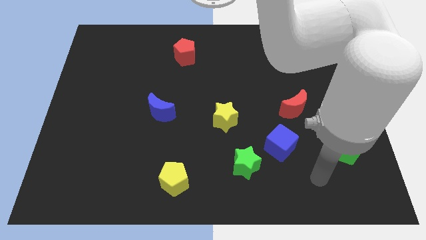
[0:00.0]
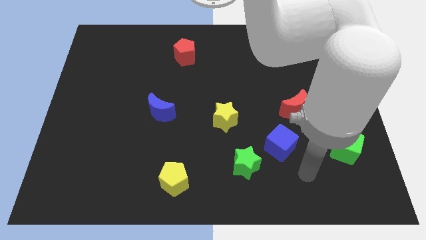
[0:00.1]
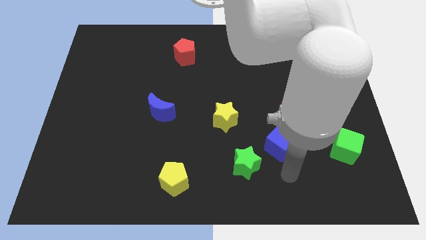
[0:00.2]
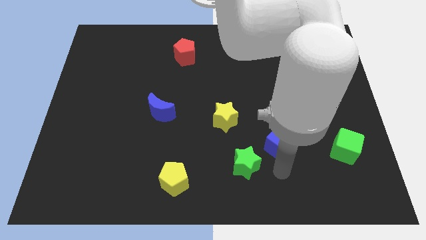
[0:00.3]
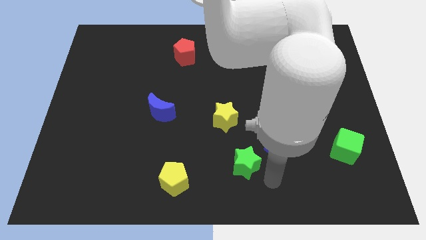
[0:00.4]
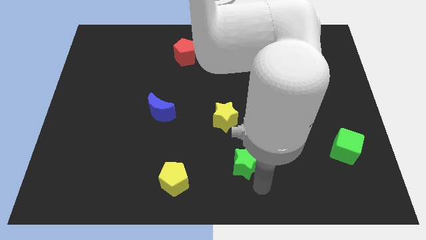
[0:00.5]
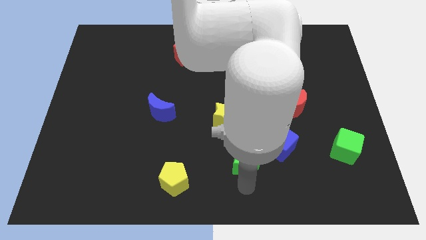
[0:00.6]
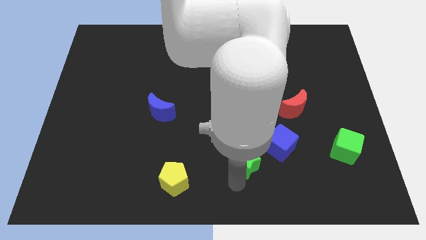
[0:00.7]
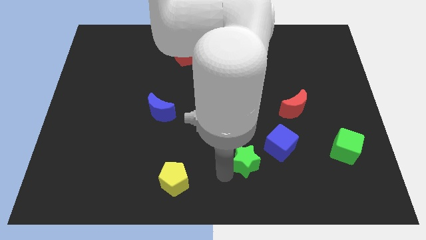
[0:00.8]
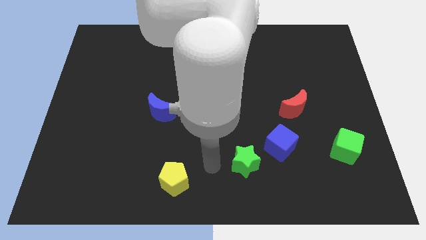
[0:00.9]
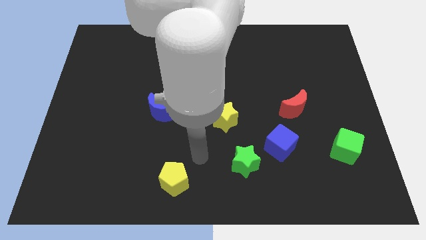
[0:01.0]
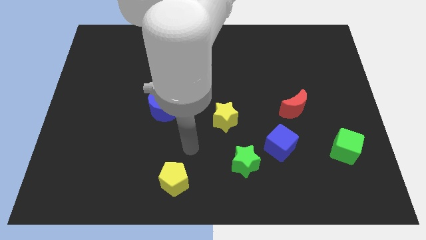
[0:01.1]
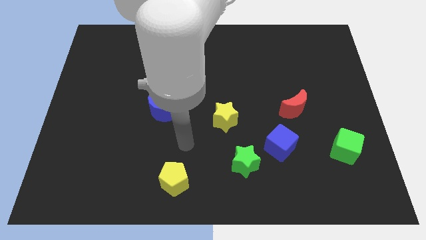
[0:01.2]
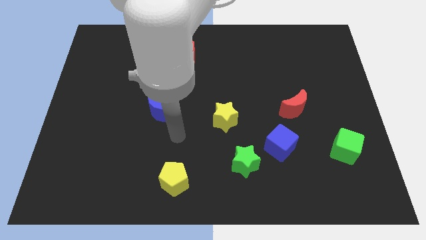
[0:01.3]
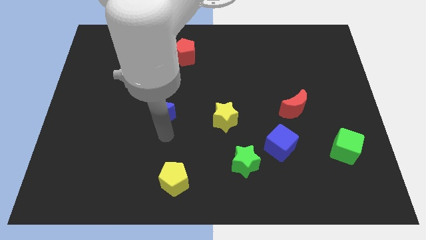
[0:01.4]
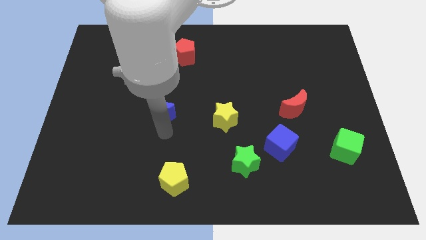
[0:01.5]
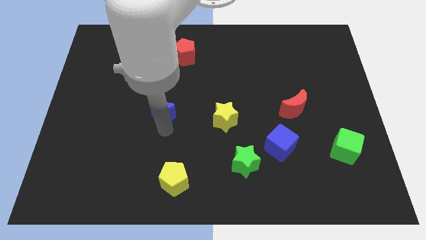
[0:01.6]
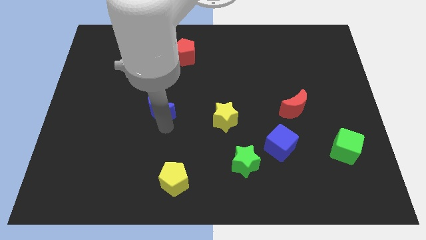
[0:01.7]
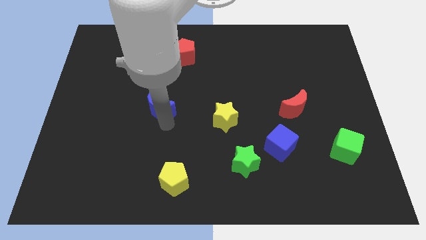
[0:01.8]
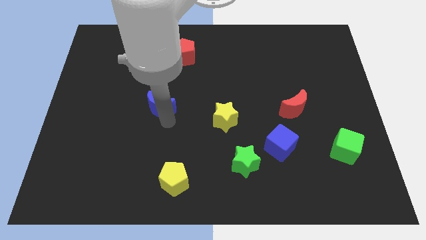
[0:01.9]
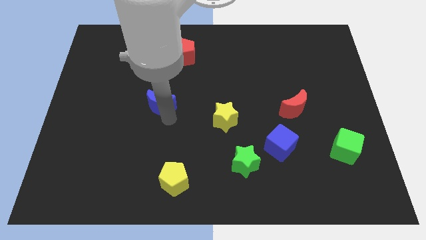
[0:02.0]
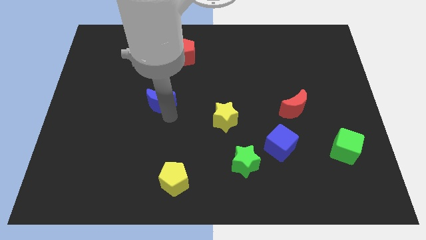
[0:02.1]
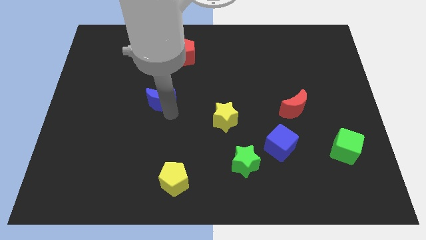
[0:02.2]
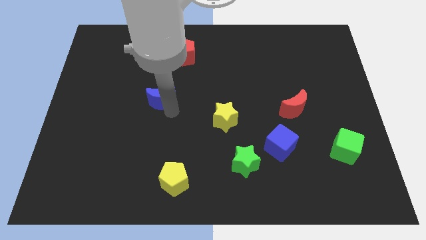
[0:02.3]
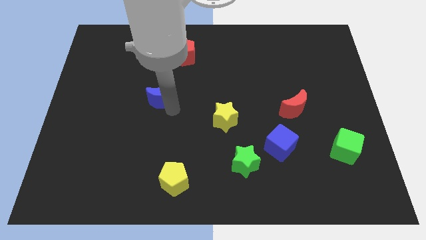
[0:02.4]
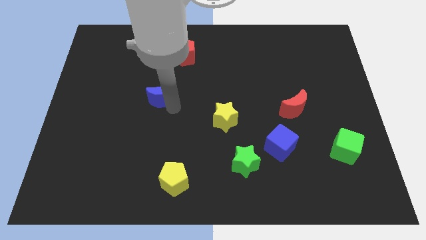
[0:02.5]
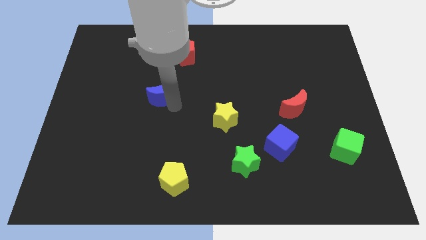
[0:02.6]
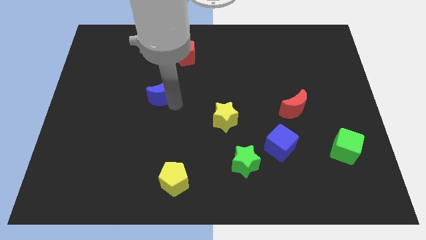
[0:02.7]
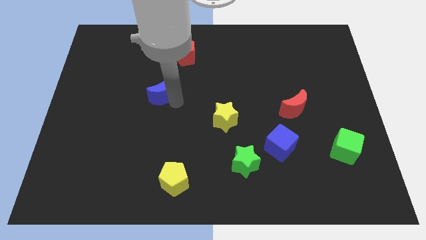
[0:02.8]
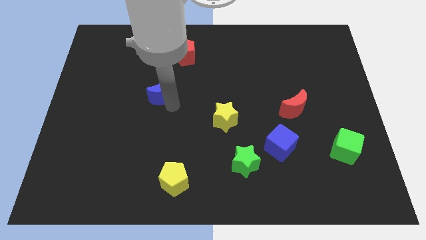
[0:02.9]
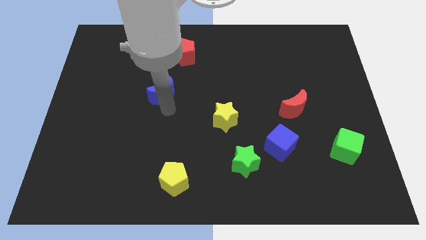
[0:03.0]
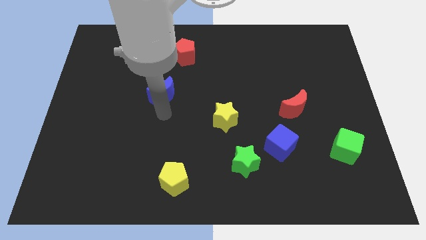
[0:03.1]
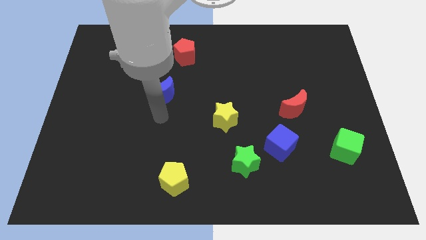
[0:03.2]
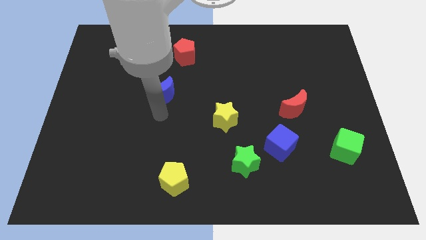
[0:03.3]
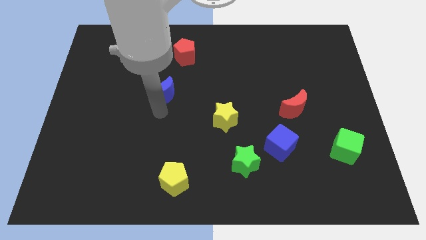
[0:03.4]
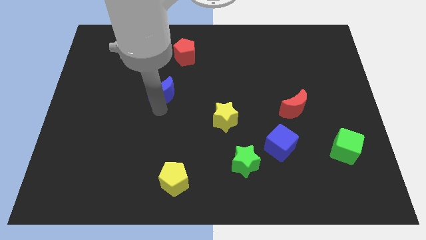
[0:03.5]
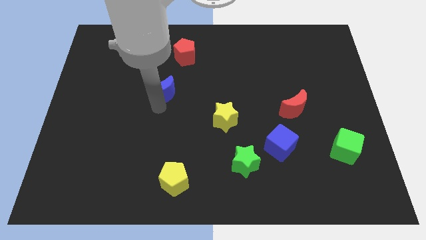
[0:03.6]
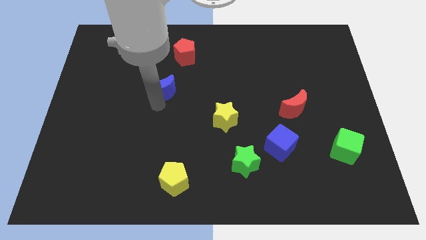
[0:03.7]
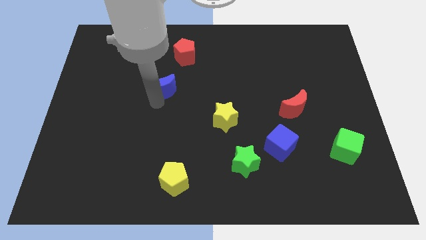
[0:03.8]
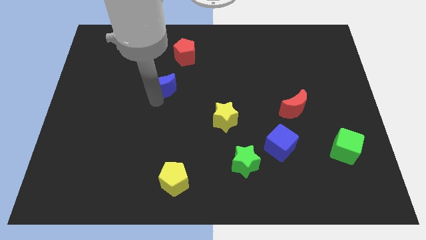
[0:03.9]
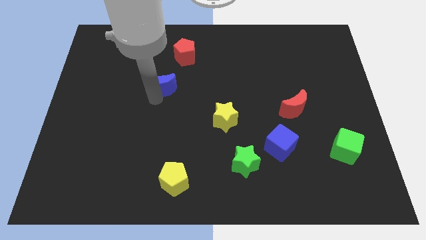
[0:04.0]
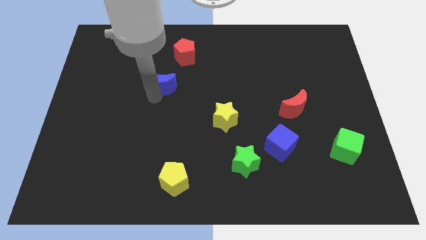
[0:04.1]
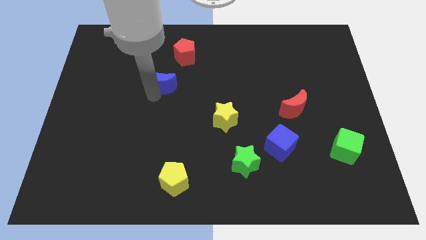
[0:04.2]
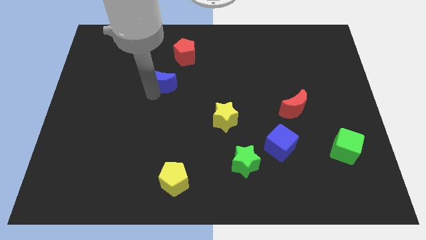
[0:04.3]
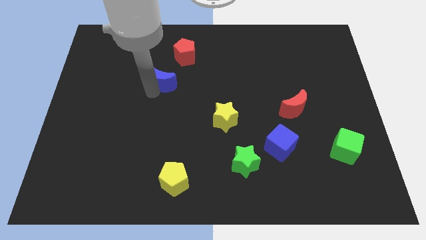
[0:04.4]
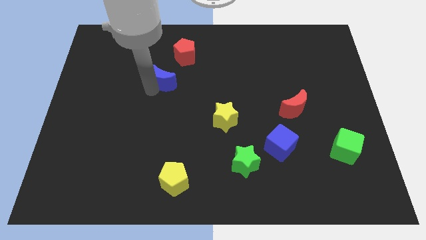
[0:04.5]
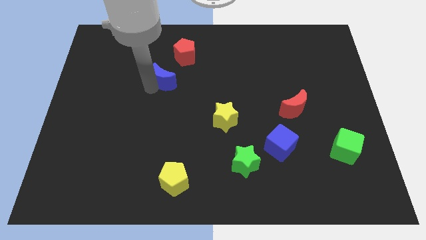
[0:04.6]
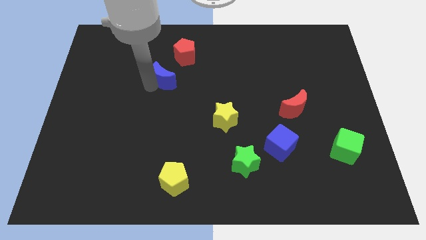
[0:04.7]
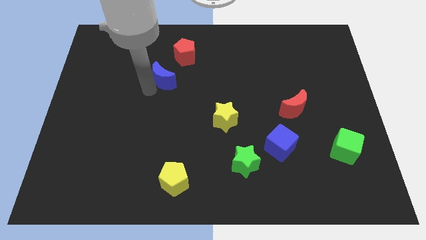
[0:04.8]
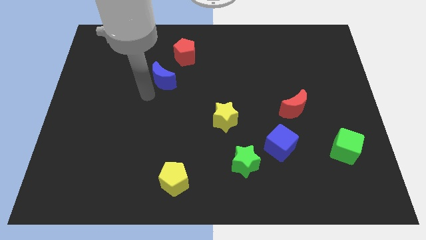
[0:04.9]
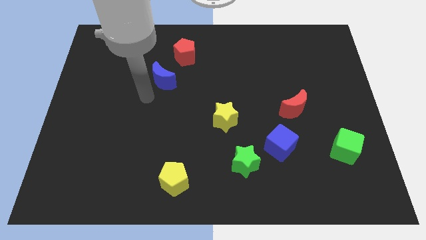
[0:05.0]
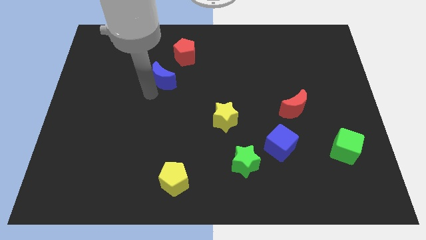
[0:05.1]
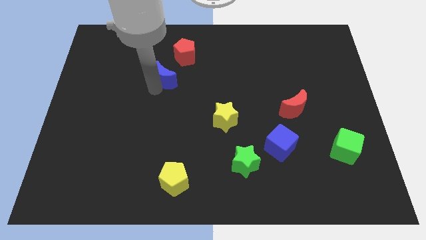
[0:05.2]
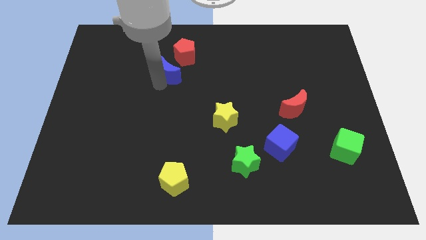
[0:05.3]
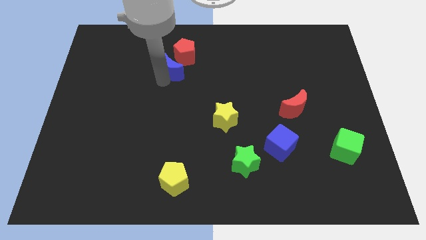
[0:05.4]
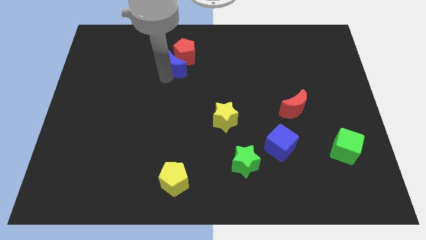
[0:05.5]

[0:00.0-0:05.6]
slide the blue moon close to the red pentagon

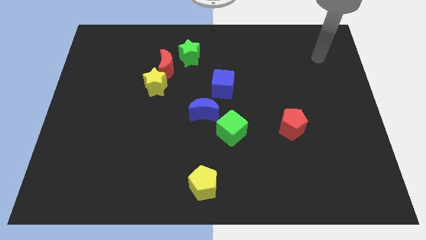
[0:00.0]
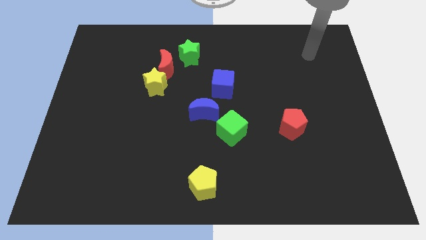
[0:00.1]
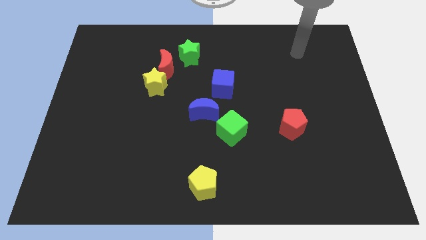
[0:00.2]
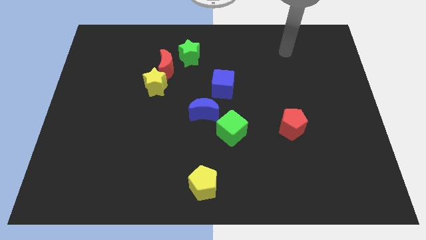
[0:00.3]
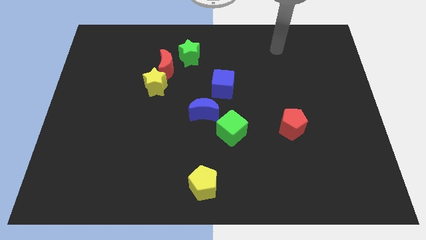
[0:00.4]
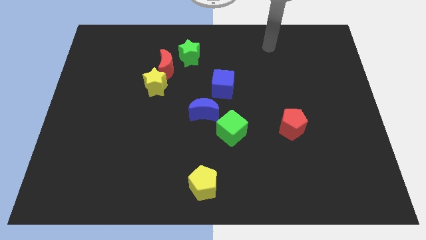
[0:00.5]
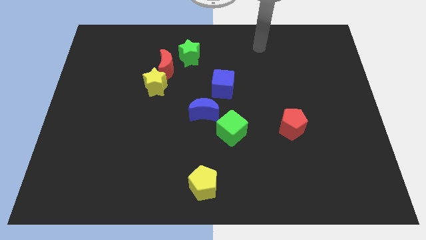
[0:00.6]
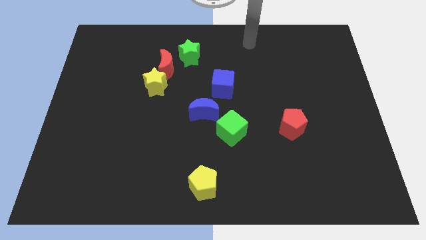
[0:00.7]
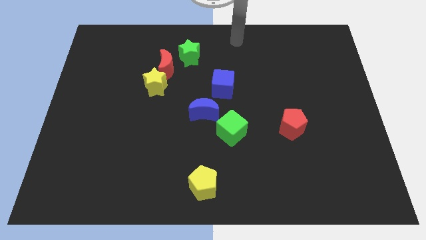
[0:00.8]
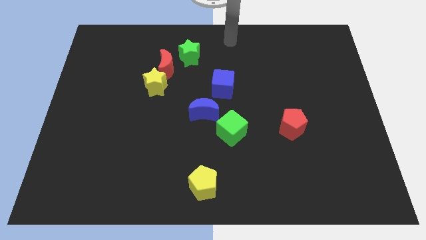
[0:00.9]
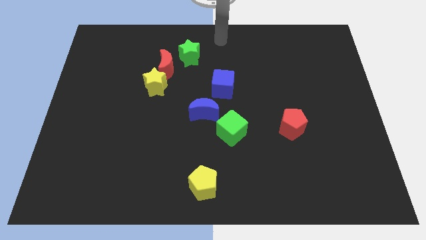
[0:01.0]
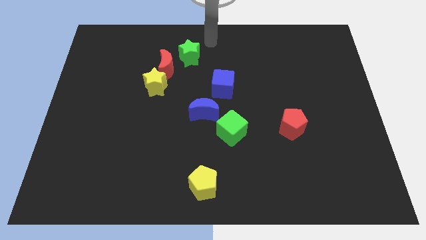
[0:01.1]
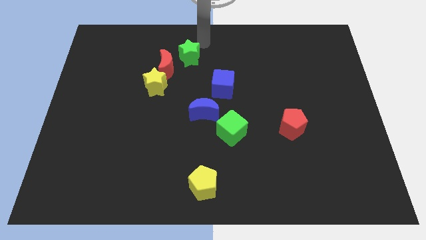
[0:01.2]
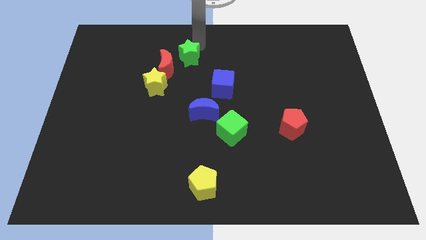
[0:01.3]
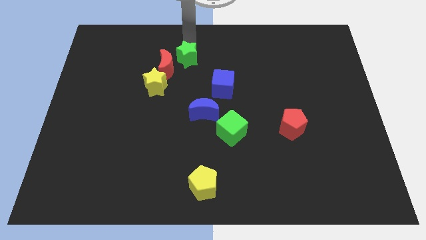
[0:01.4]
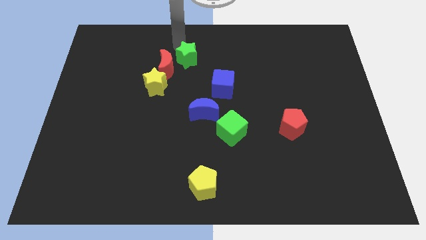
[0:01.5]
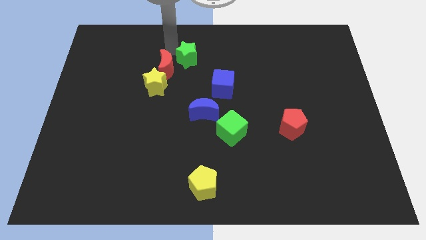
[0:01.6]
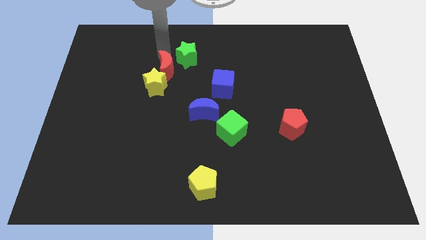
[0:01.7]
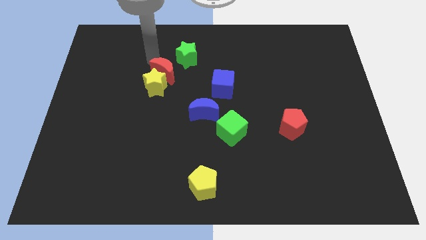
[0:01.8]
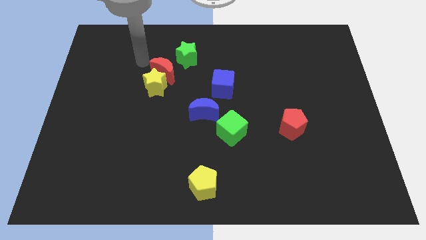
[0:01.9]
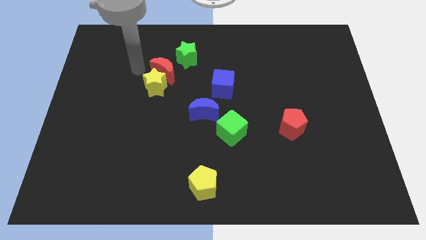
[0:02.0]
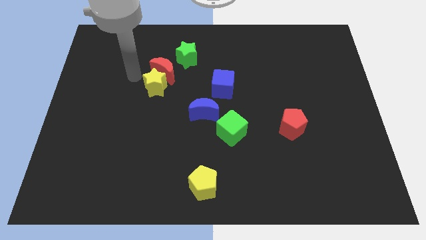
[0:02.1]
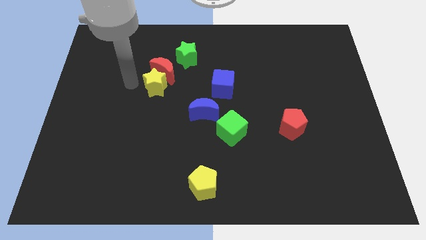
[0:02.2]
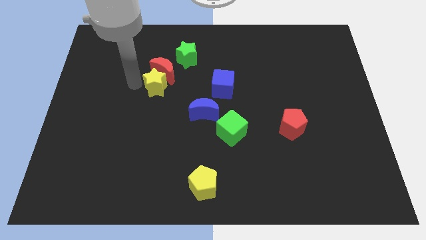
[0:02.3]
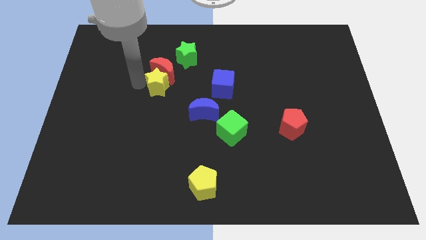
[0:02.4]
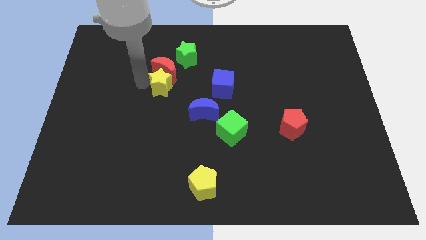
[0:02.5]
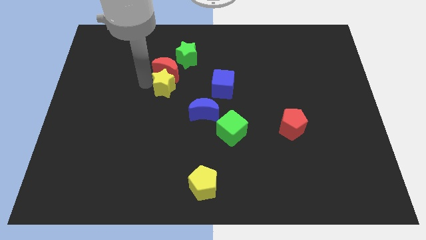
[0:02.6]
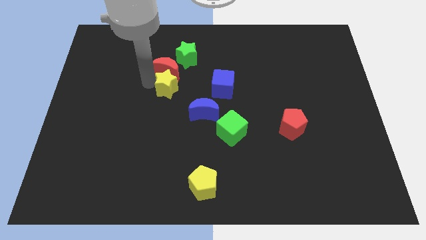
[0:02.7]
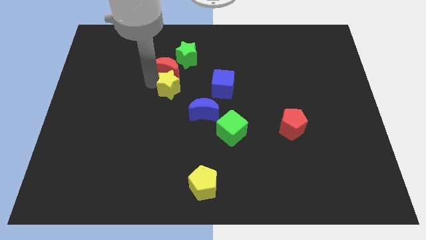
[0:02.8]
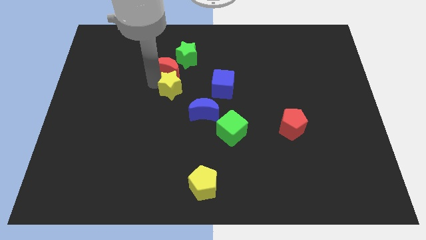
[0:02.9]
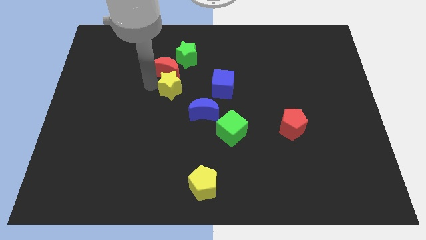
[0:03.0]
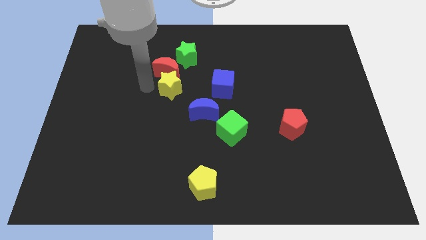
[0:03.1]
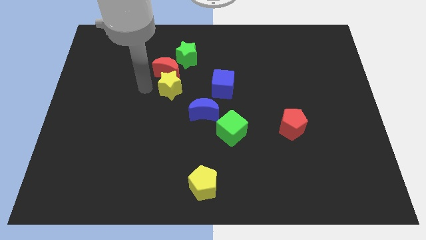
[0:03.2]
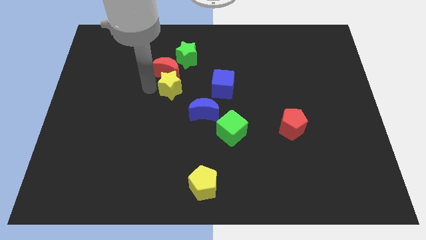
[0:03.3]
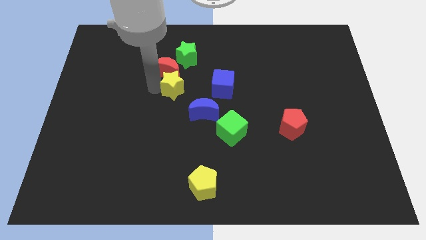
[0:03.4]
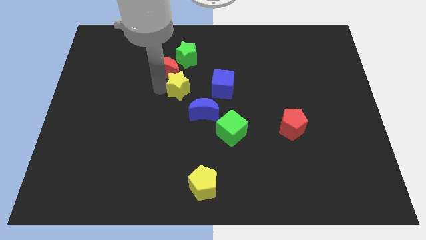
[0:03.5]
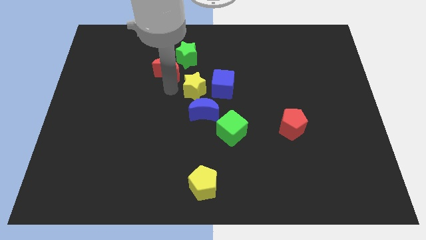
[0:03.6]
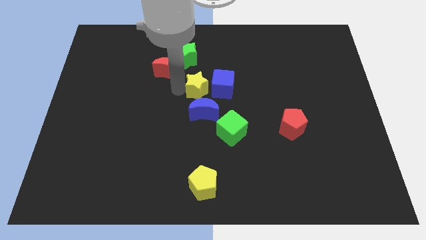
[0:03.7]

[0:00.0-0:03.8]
move the yellow star towards the blue cube
